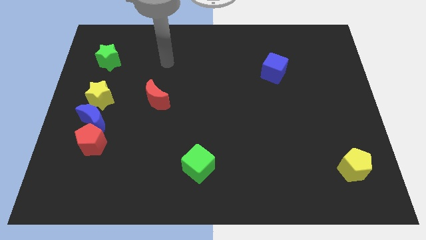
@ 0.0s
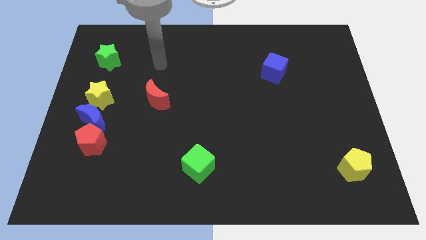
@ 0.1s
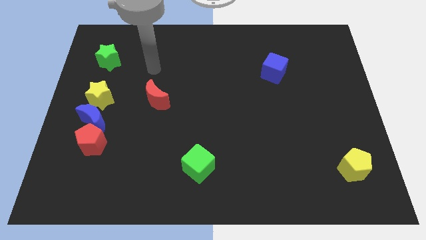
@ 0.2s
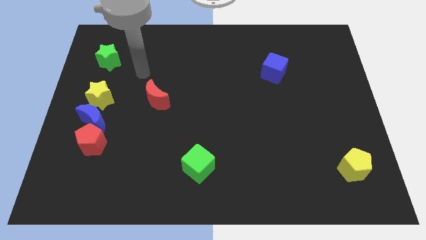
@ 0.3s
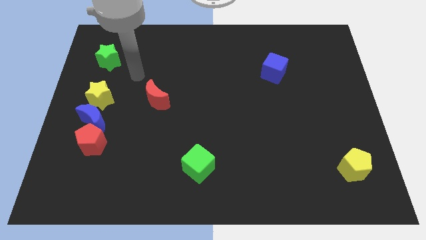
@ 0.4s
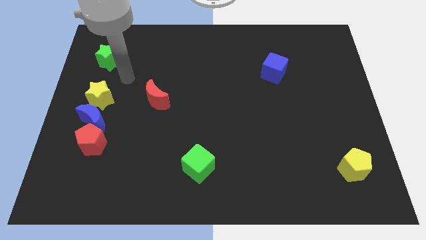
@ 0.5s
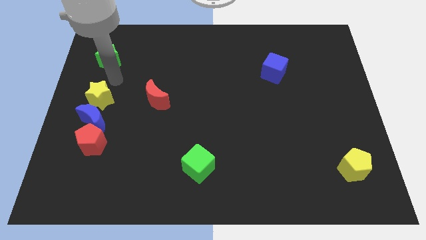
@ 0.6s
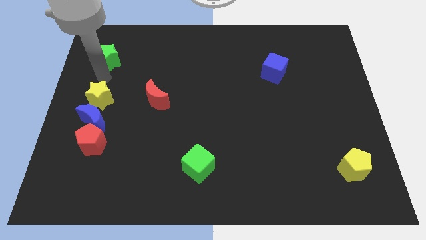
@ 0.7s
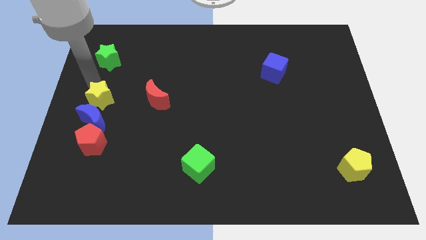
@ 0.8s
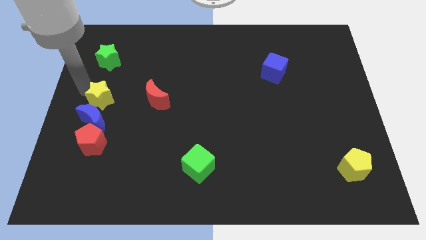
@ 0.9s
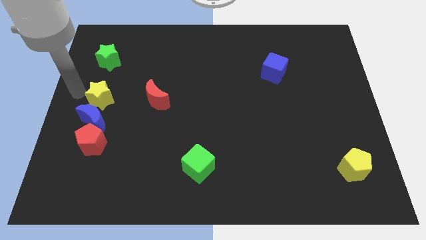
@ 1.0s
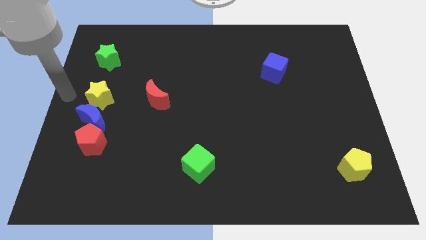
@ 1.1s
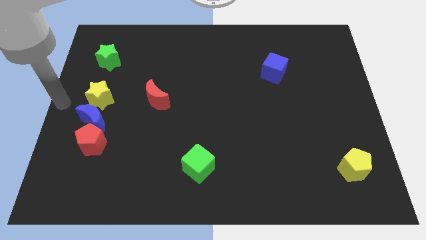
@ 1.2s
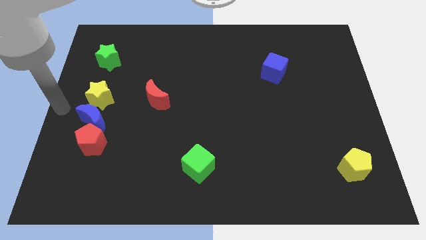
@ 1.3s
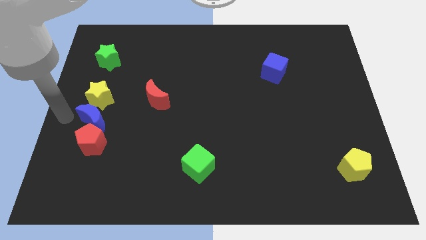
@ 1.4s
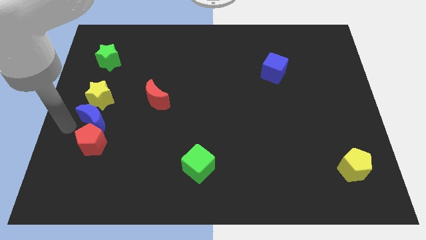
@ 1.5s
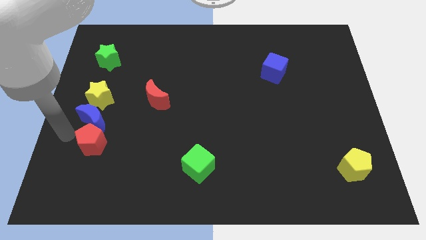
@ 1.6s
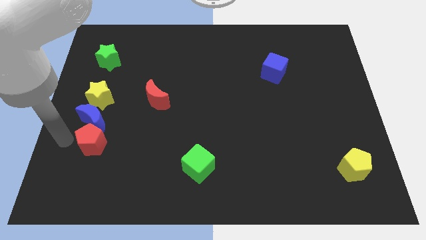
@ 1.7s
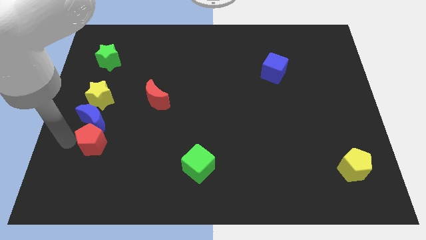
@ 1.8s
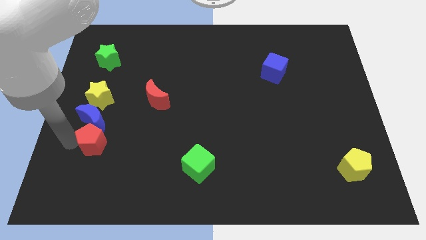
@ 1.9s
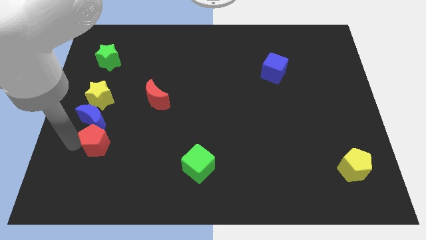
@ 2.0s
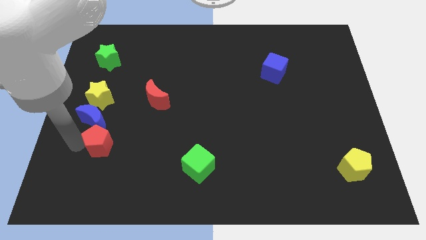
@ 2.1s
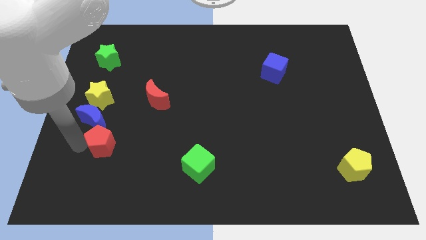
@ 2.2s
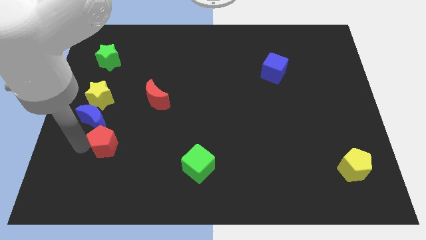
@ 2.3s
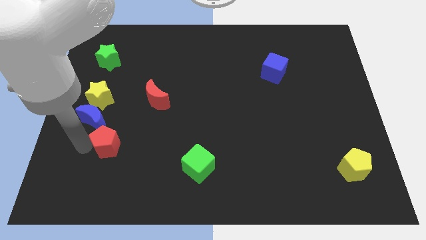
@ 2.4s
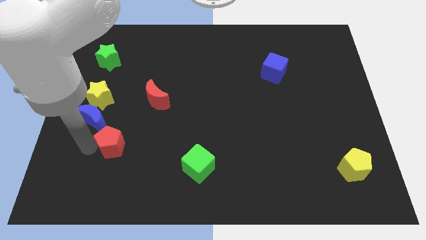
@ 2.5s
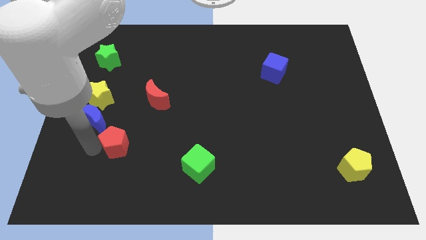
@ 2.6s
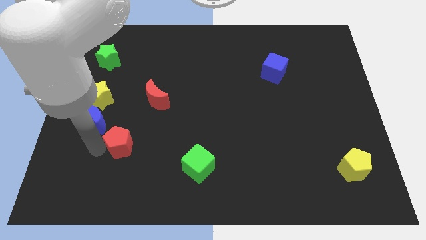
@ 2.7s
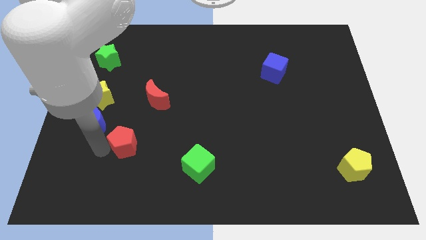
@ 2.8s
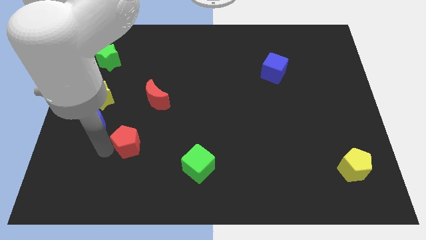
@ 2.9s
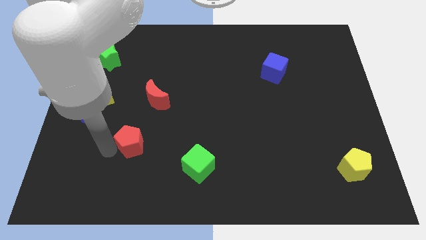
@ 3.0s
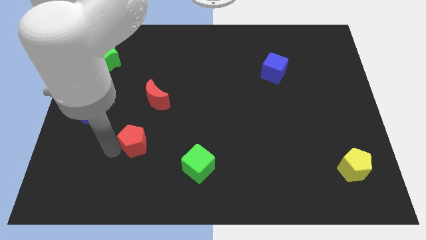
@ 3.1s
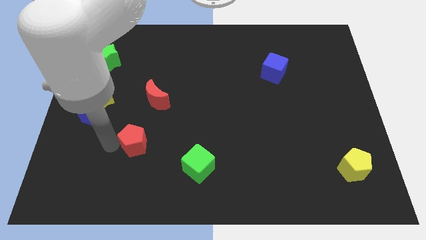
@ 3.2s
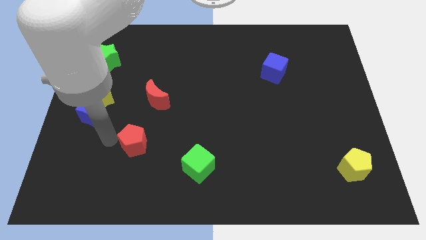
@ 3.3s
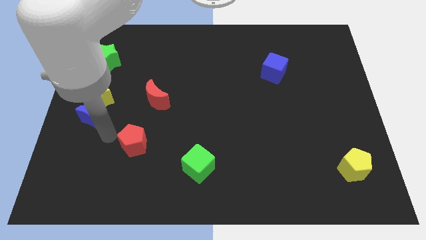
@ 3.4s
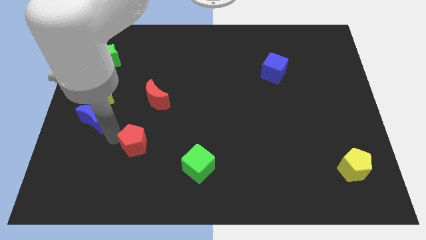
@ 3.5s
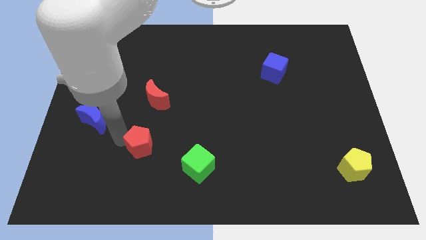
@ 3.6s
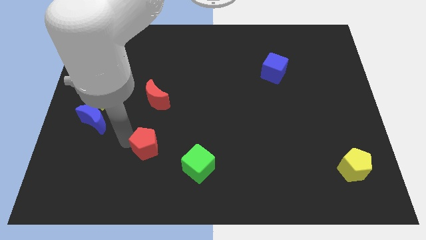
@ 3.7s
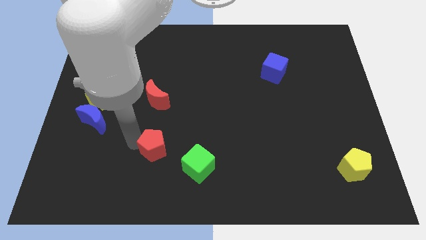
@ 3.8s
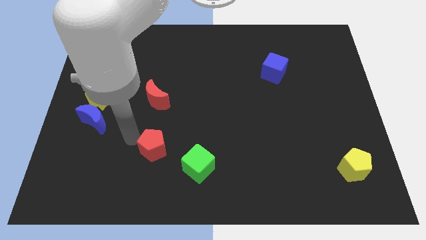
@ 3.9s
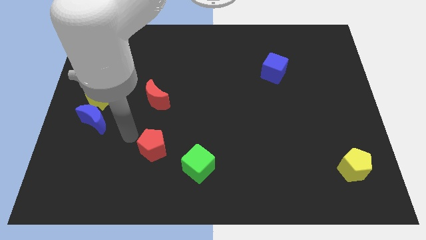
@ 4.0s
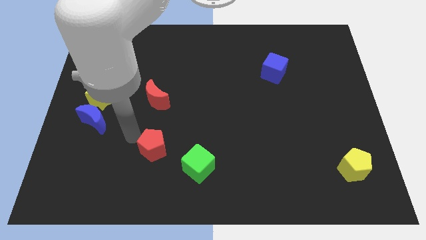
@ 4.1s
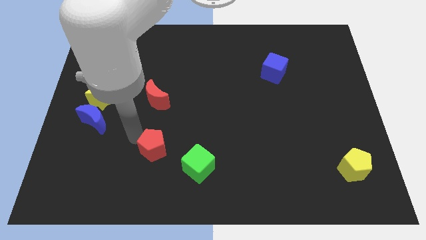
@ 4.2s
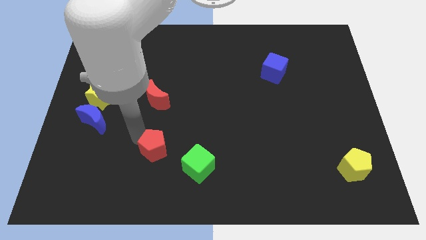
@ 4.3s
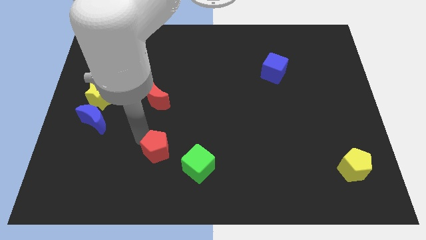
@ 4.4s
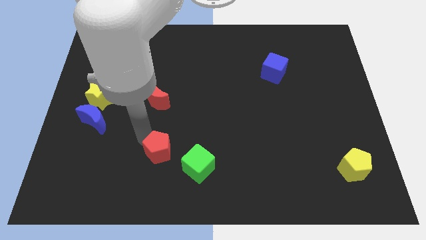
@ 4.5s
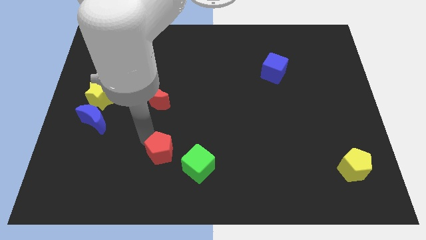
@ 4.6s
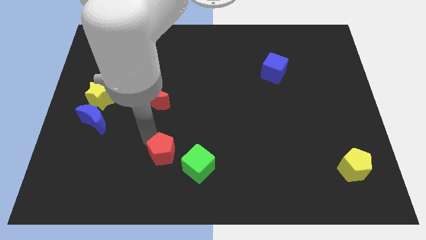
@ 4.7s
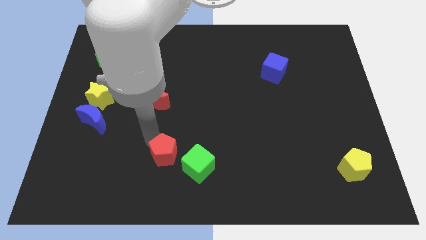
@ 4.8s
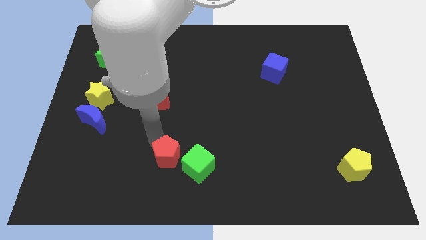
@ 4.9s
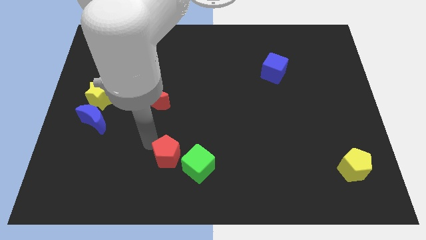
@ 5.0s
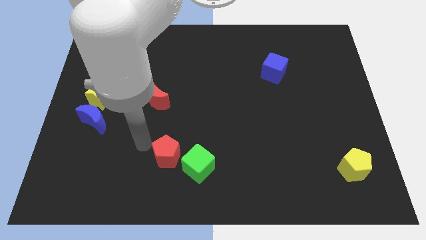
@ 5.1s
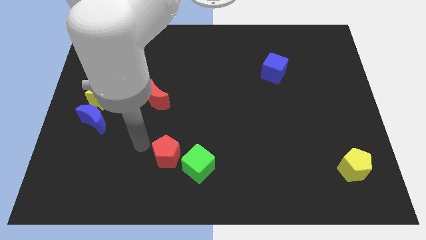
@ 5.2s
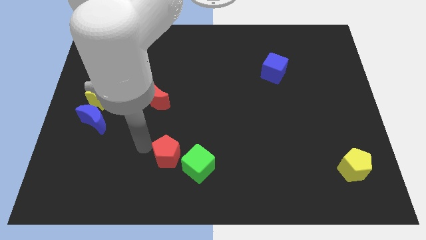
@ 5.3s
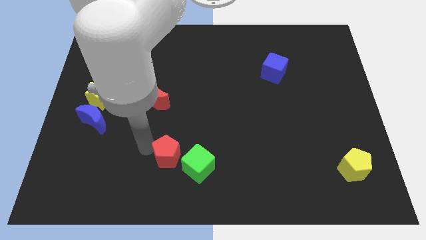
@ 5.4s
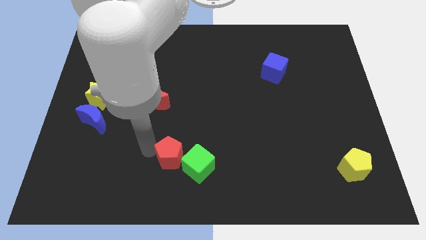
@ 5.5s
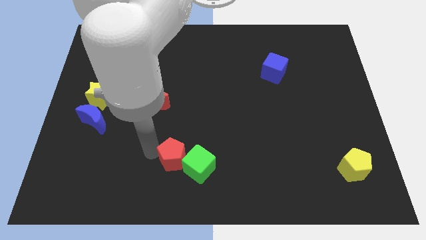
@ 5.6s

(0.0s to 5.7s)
put the red pentagon close to the green cube

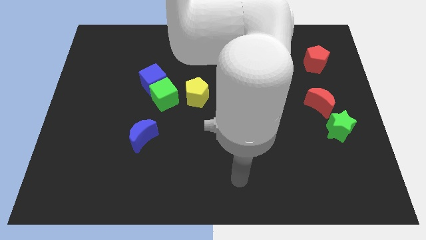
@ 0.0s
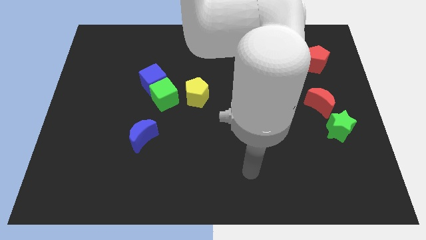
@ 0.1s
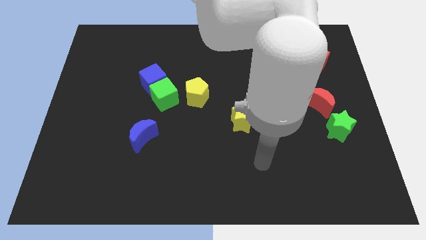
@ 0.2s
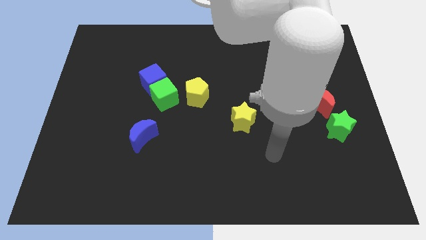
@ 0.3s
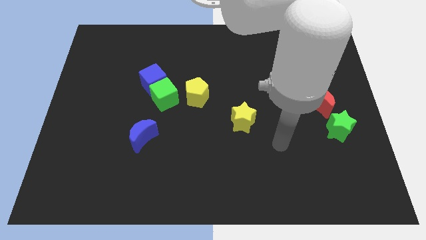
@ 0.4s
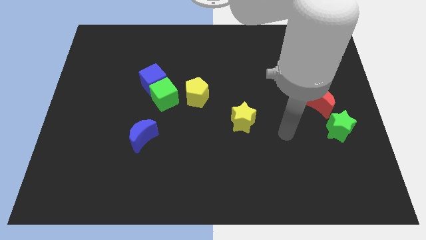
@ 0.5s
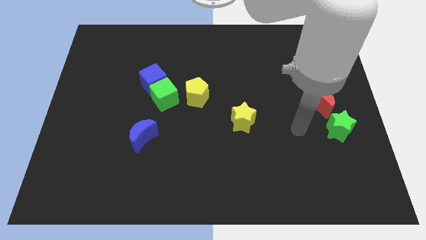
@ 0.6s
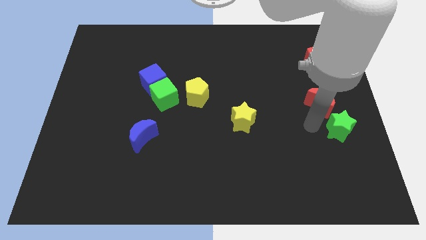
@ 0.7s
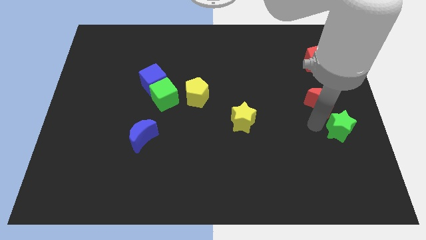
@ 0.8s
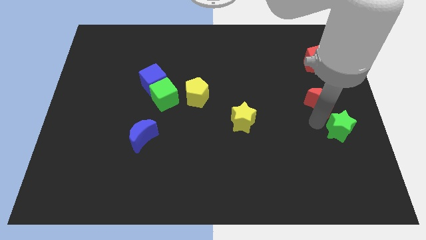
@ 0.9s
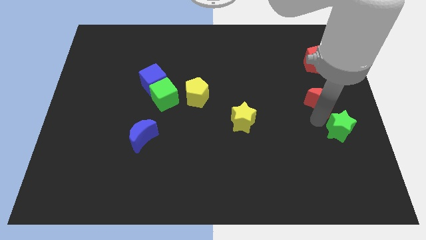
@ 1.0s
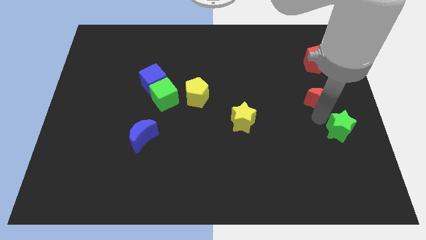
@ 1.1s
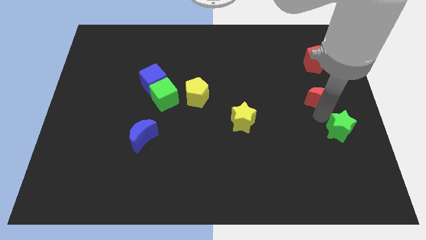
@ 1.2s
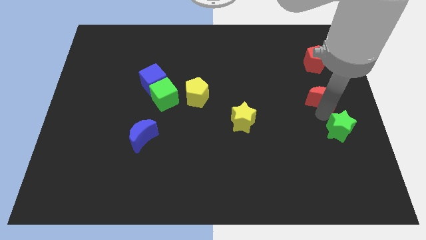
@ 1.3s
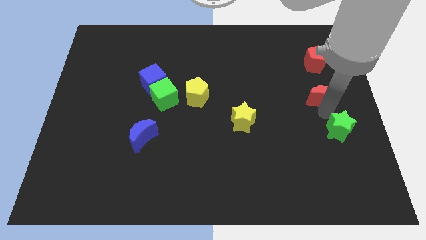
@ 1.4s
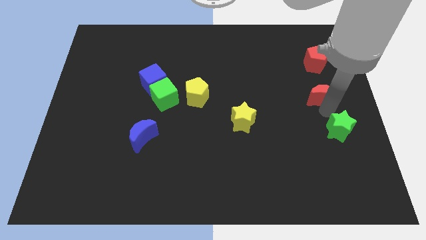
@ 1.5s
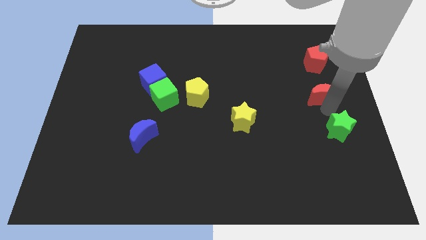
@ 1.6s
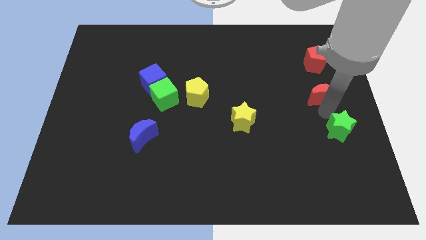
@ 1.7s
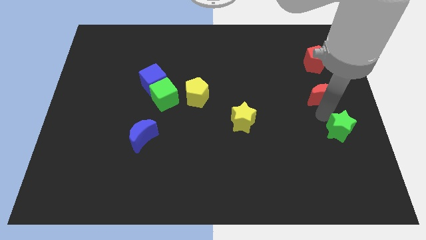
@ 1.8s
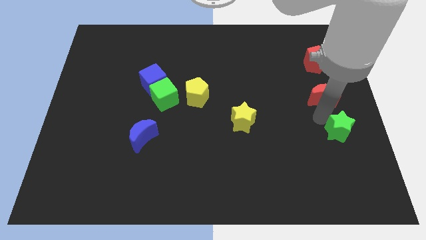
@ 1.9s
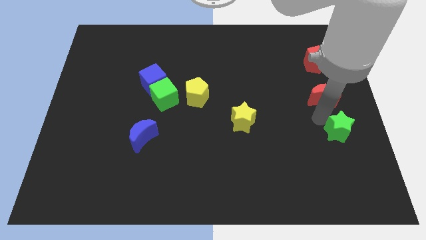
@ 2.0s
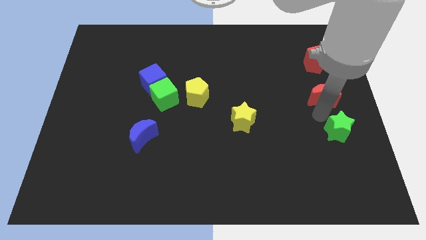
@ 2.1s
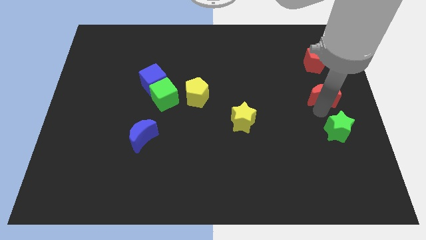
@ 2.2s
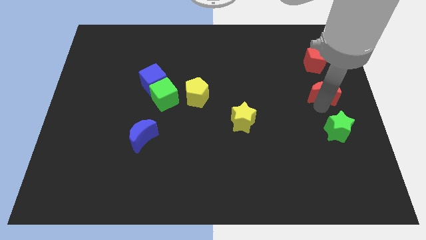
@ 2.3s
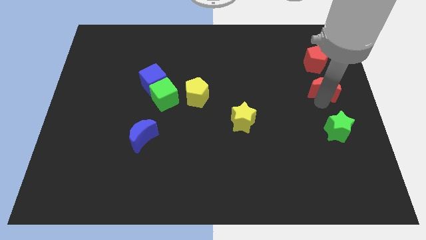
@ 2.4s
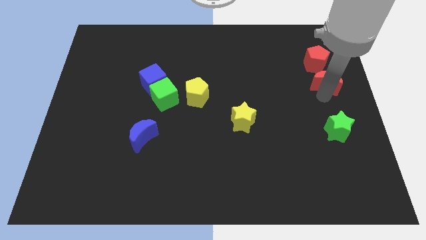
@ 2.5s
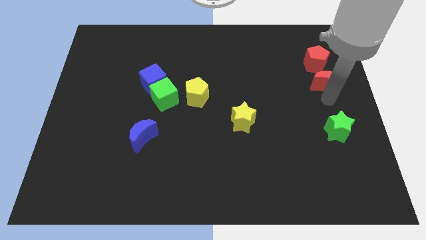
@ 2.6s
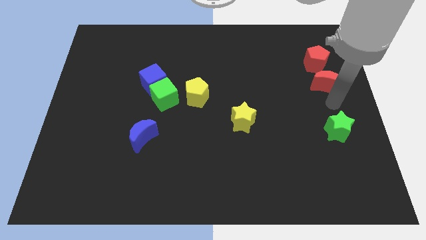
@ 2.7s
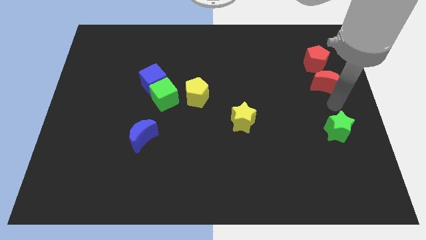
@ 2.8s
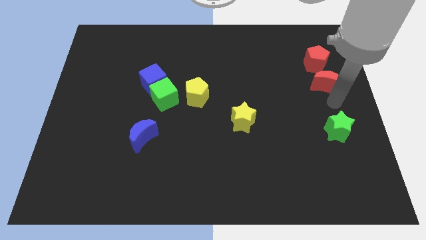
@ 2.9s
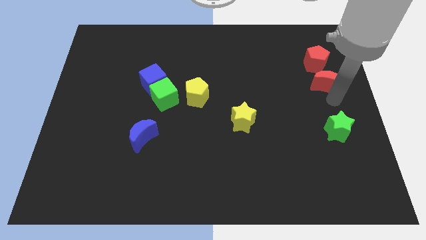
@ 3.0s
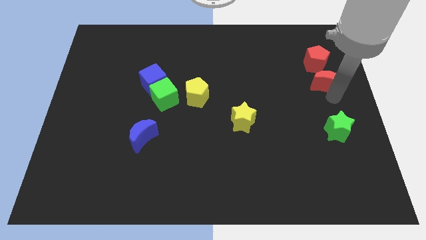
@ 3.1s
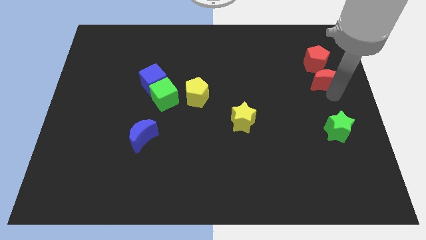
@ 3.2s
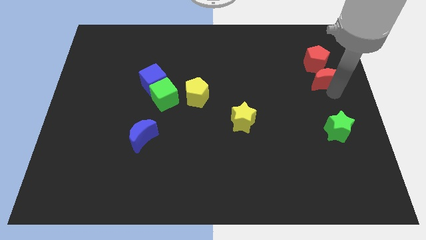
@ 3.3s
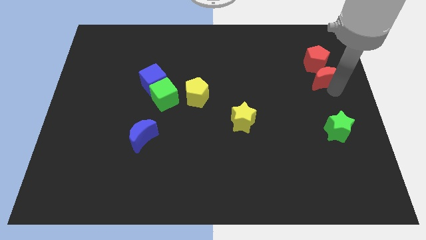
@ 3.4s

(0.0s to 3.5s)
push the red moon to the red pentagon
